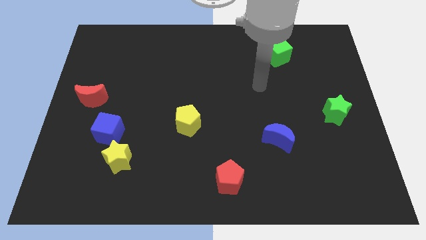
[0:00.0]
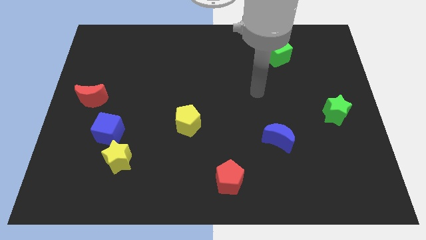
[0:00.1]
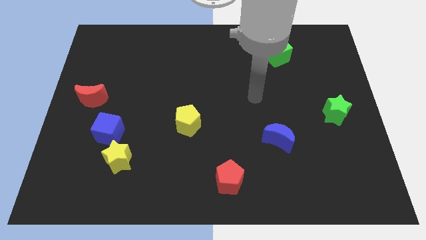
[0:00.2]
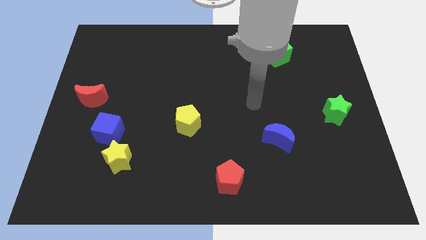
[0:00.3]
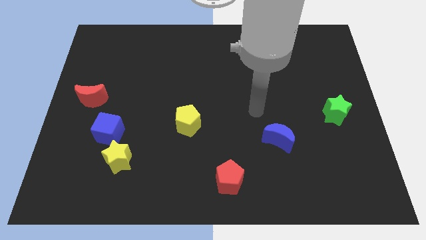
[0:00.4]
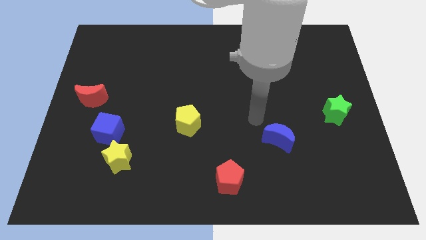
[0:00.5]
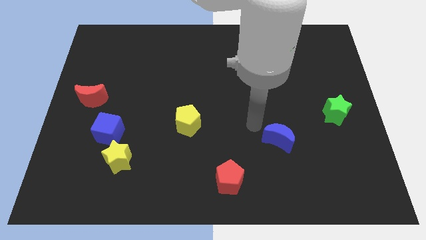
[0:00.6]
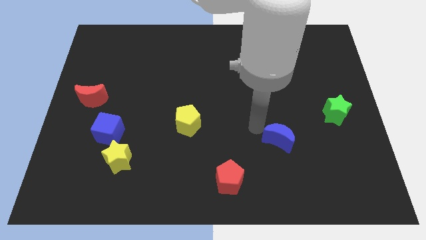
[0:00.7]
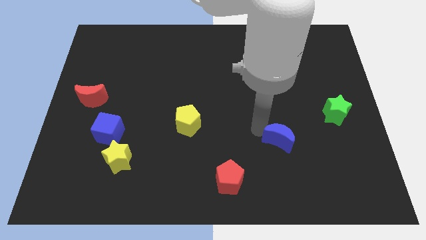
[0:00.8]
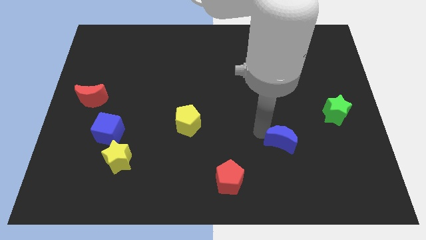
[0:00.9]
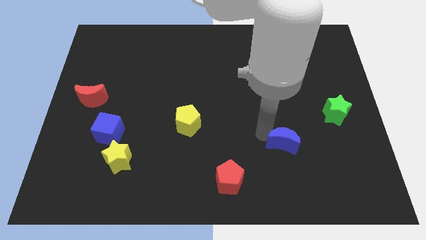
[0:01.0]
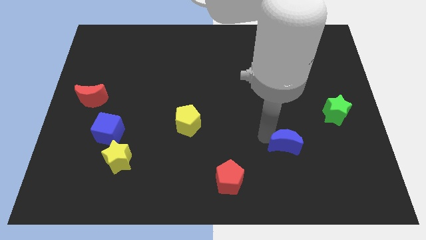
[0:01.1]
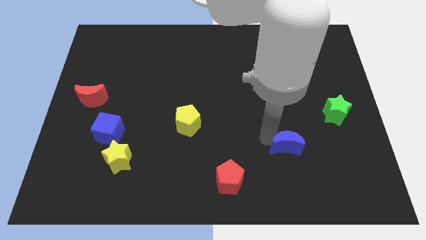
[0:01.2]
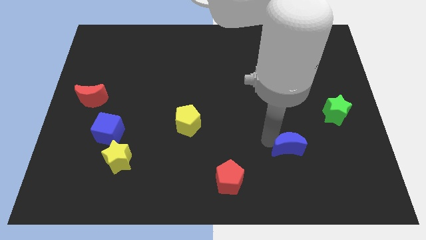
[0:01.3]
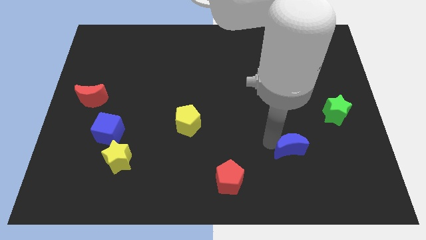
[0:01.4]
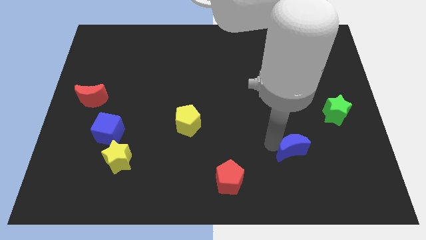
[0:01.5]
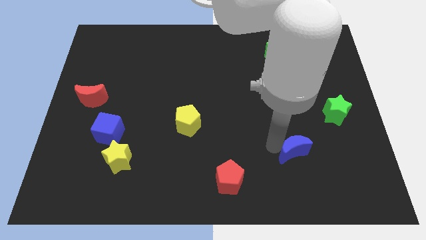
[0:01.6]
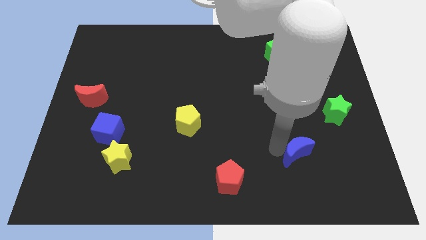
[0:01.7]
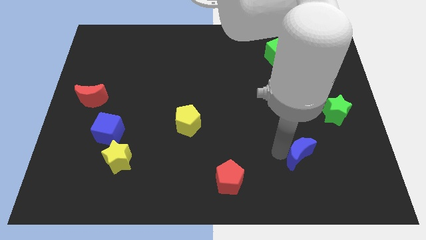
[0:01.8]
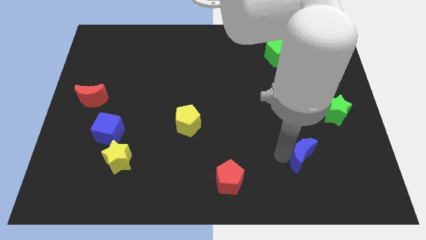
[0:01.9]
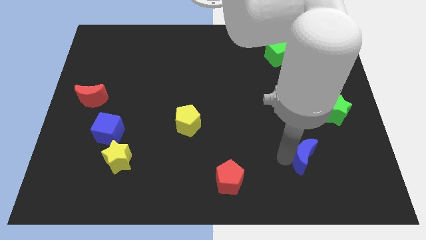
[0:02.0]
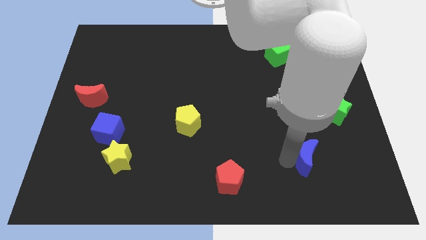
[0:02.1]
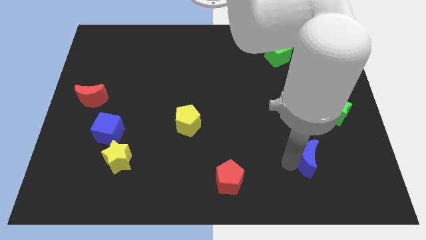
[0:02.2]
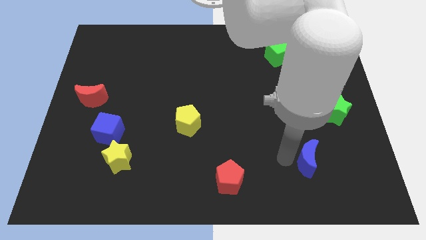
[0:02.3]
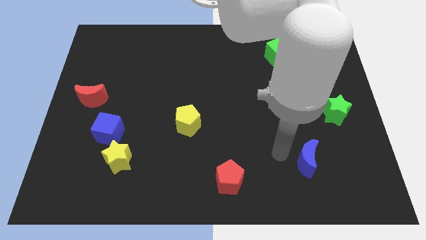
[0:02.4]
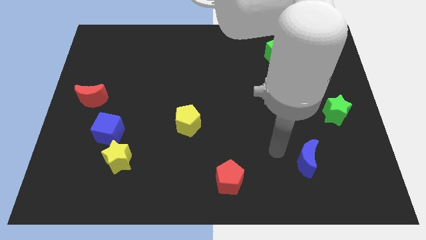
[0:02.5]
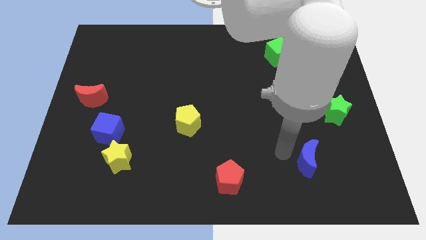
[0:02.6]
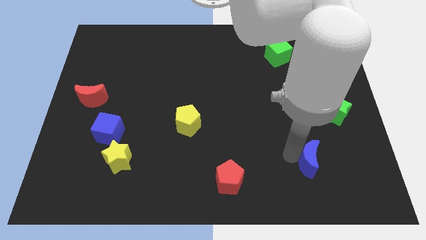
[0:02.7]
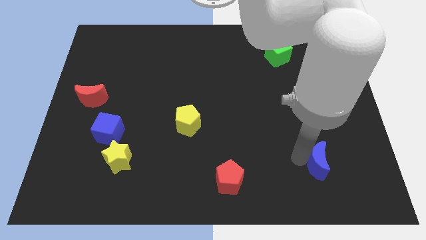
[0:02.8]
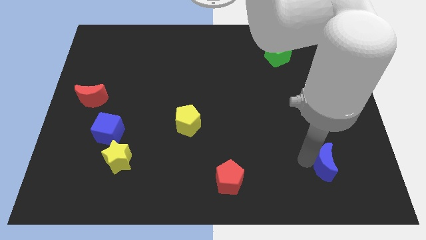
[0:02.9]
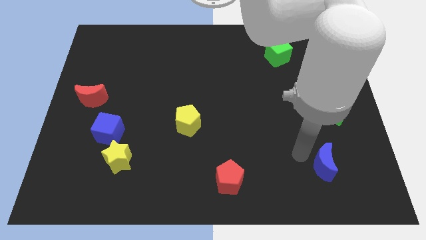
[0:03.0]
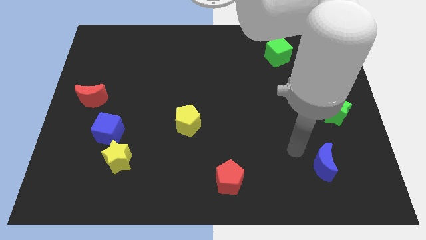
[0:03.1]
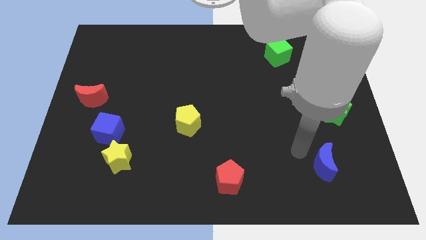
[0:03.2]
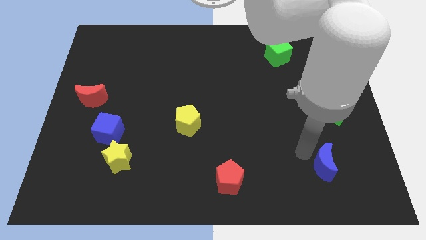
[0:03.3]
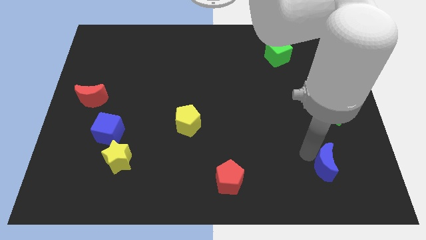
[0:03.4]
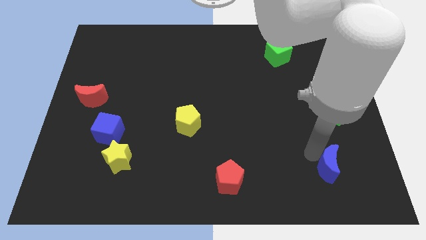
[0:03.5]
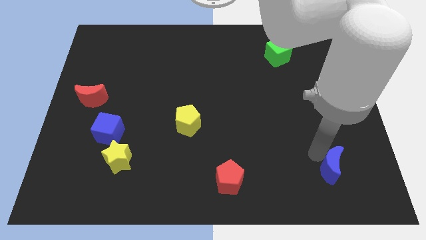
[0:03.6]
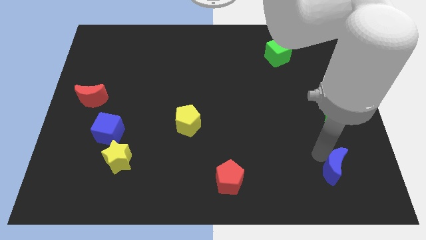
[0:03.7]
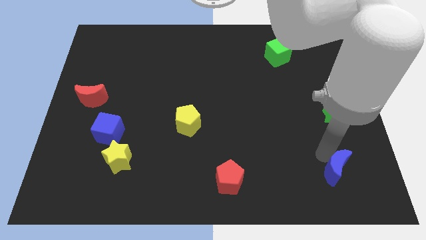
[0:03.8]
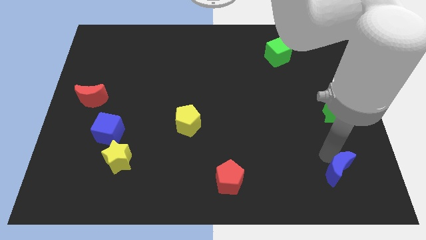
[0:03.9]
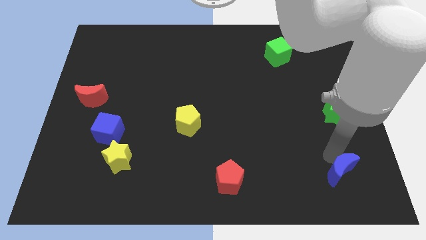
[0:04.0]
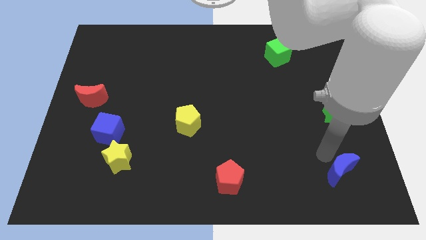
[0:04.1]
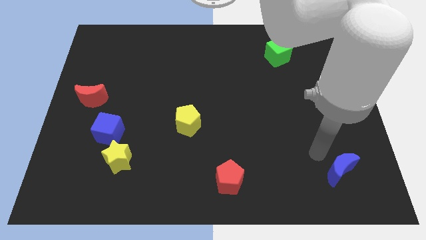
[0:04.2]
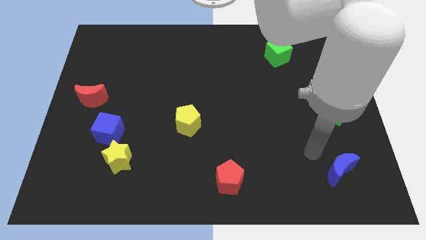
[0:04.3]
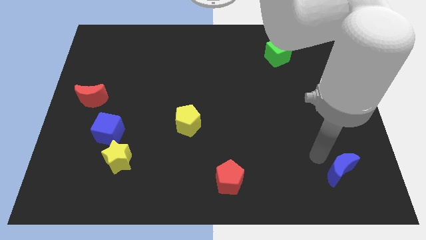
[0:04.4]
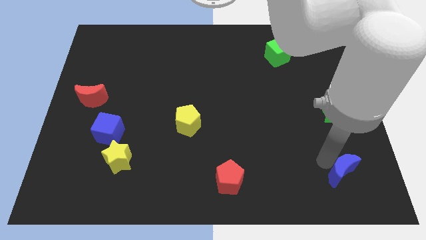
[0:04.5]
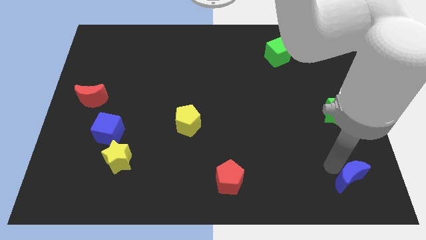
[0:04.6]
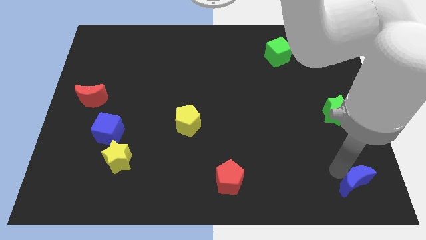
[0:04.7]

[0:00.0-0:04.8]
slide the blue moon to the bottom right of the board

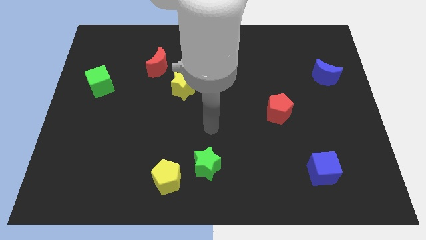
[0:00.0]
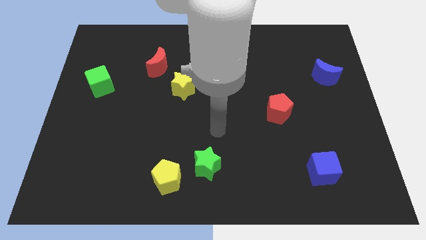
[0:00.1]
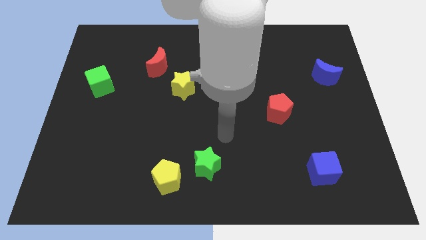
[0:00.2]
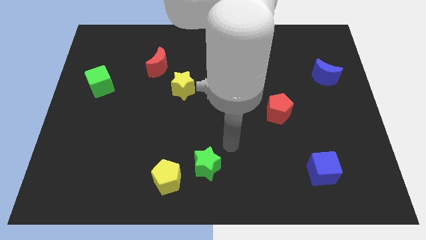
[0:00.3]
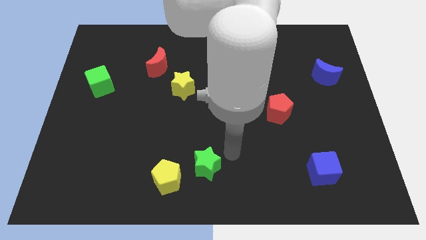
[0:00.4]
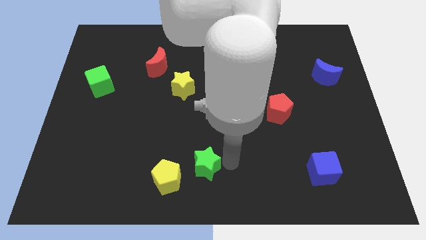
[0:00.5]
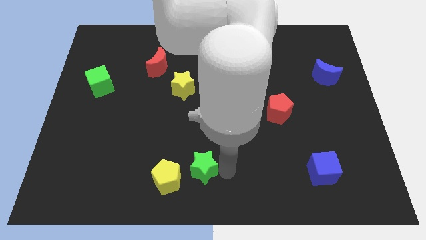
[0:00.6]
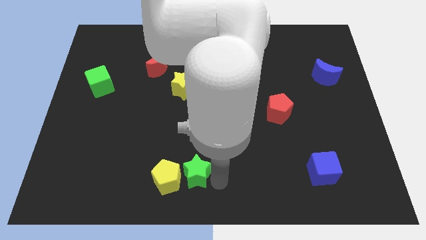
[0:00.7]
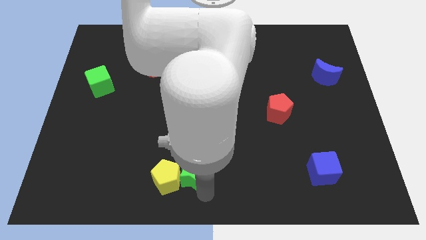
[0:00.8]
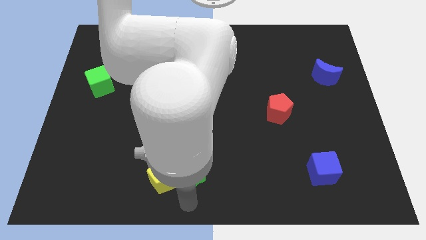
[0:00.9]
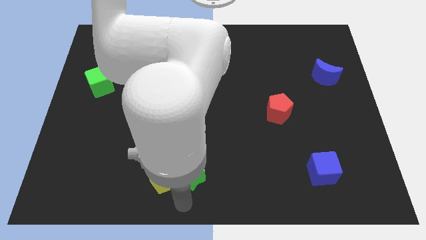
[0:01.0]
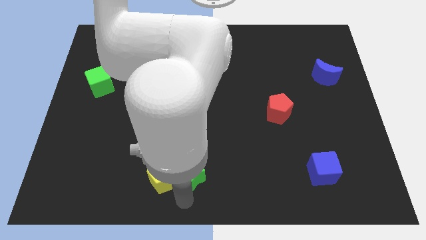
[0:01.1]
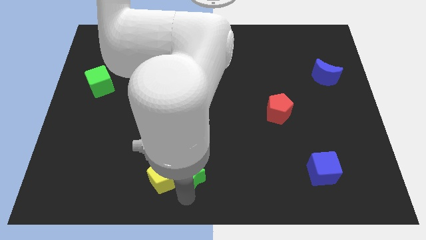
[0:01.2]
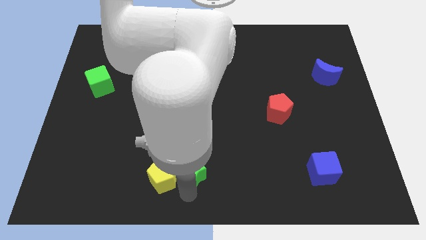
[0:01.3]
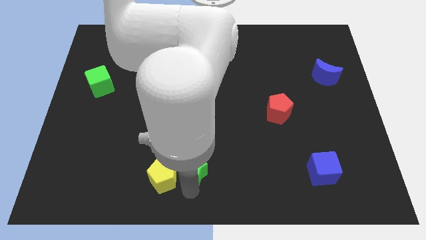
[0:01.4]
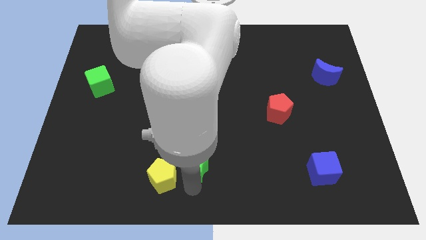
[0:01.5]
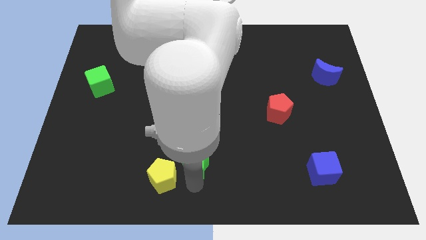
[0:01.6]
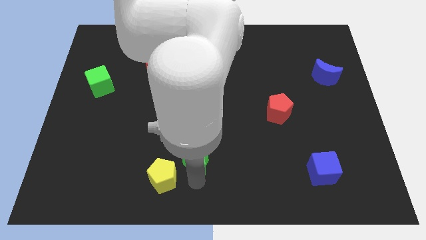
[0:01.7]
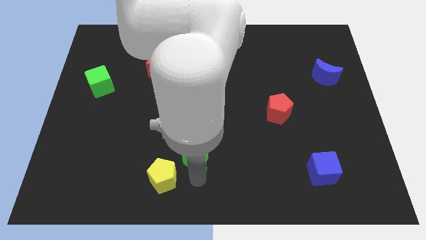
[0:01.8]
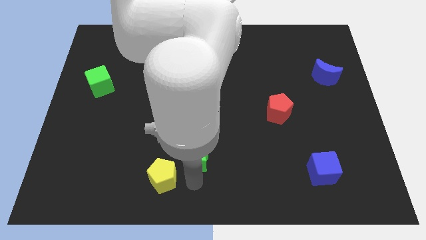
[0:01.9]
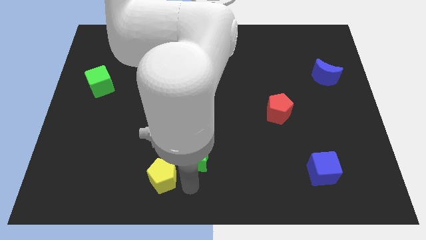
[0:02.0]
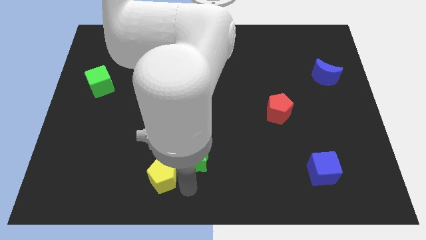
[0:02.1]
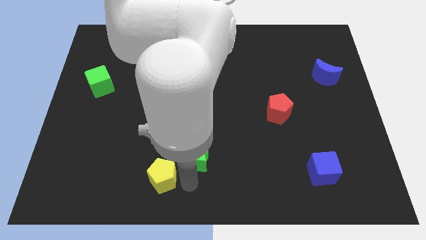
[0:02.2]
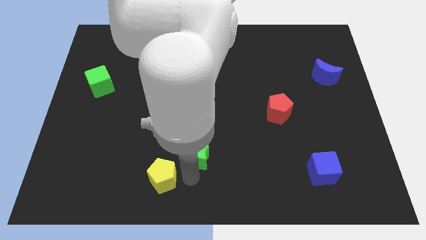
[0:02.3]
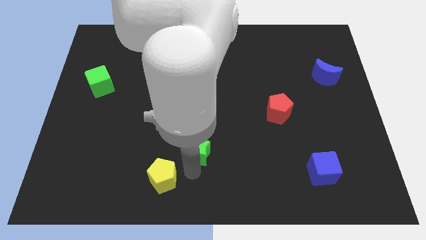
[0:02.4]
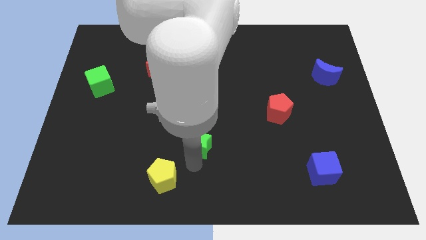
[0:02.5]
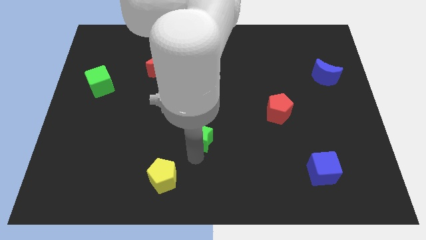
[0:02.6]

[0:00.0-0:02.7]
put the green star to the middle of the board
